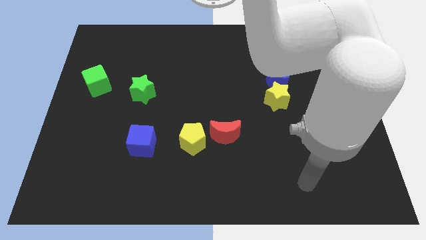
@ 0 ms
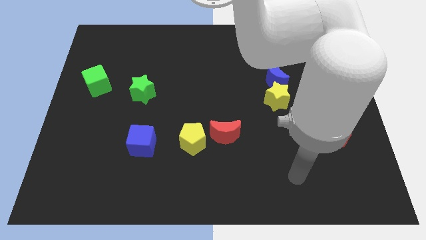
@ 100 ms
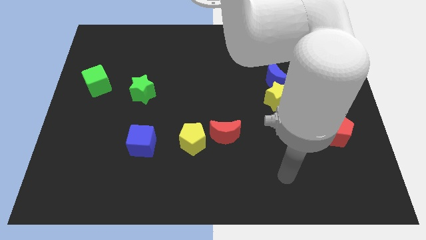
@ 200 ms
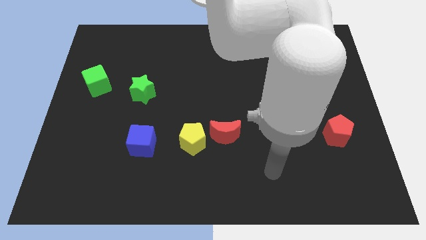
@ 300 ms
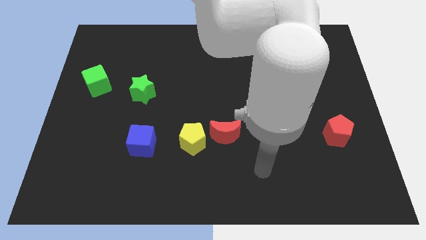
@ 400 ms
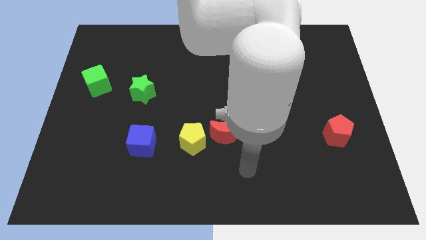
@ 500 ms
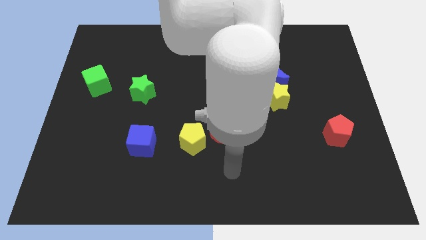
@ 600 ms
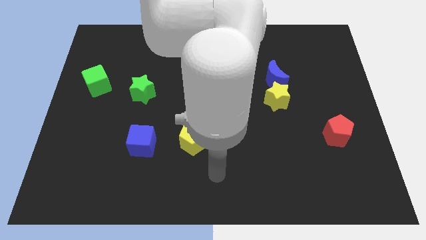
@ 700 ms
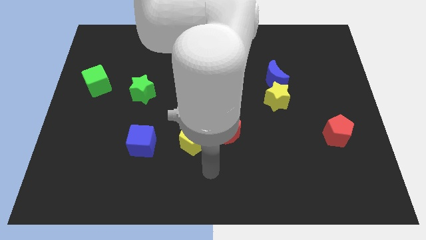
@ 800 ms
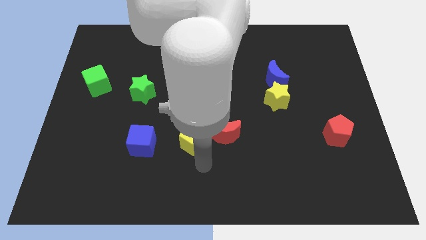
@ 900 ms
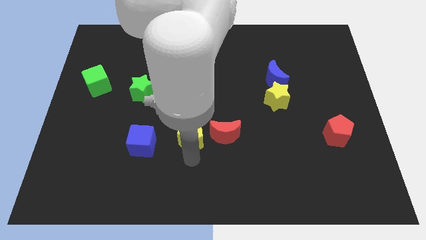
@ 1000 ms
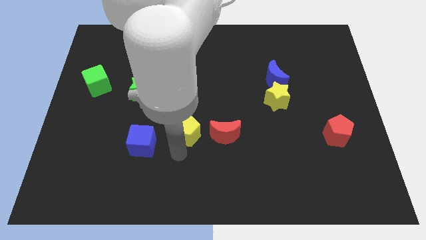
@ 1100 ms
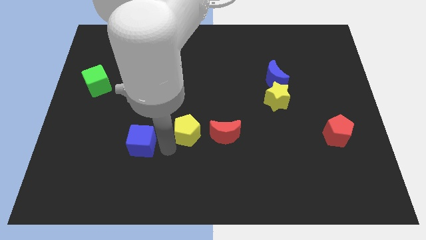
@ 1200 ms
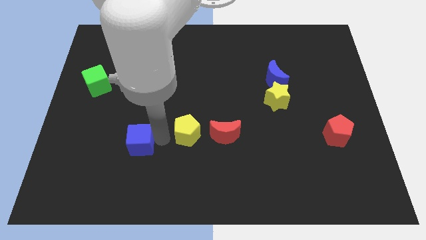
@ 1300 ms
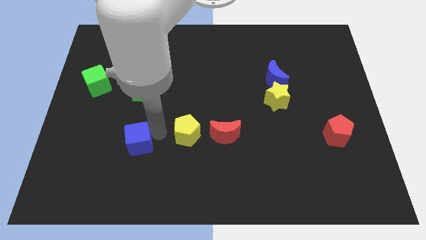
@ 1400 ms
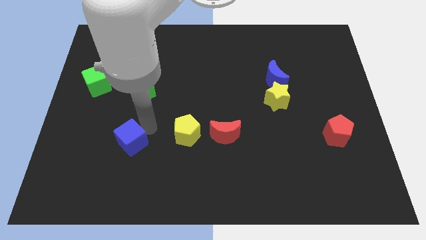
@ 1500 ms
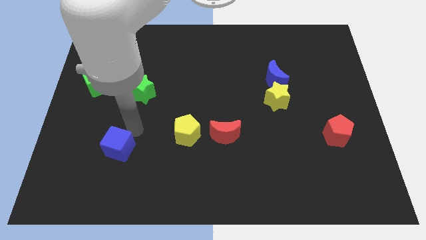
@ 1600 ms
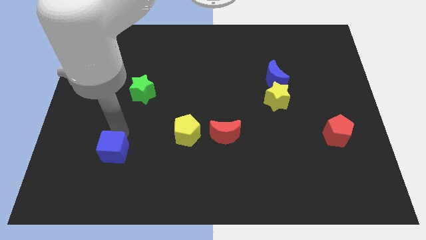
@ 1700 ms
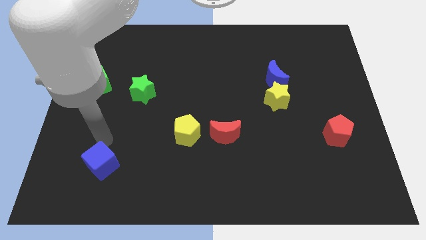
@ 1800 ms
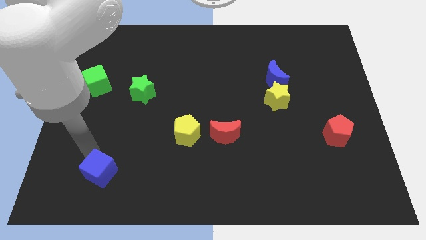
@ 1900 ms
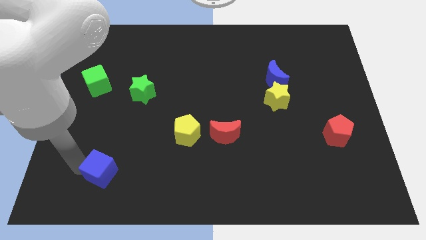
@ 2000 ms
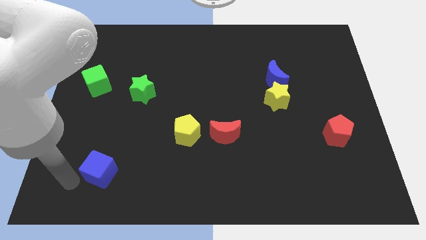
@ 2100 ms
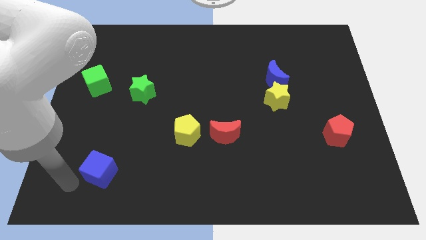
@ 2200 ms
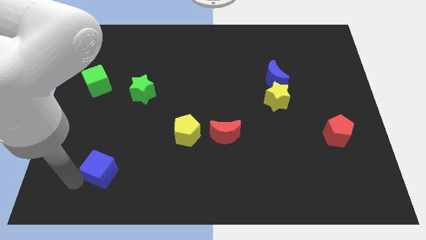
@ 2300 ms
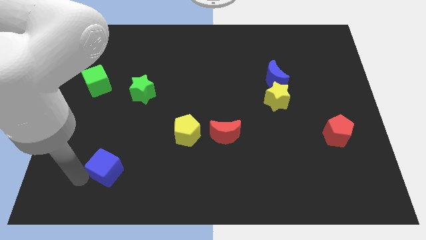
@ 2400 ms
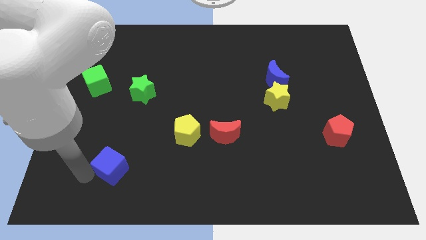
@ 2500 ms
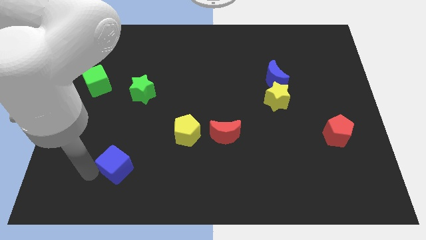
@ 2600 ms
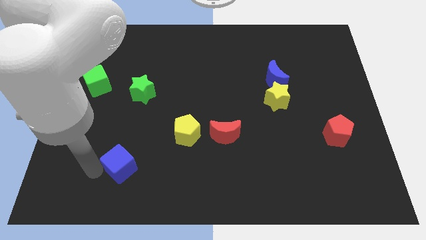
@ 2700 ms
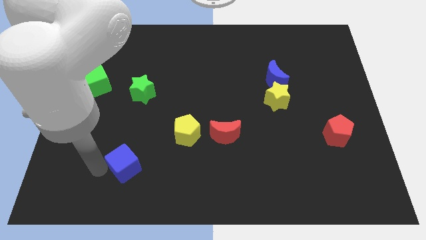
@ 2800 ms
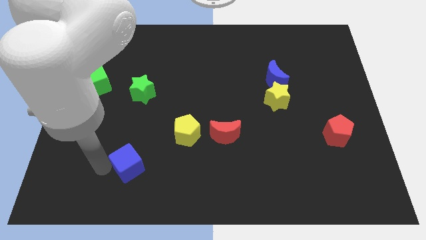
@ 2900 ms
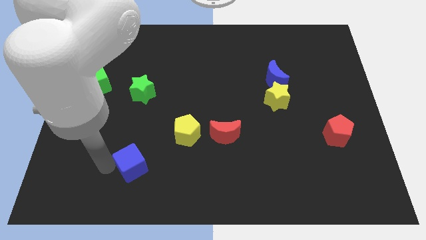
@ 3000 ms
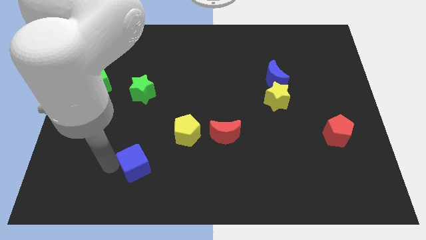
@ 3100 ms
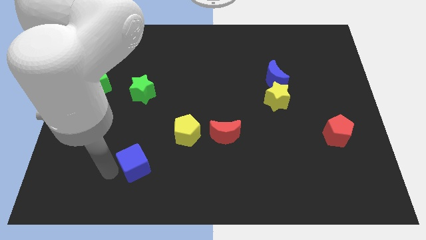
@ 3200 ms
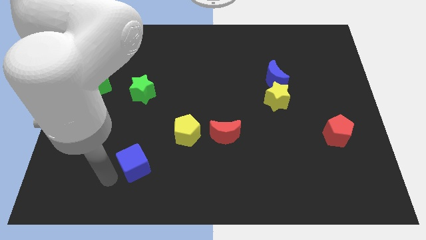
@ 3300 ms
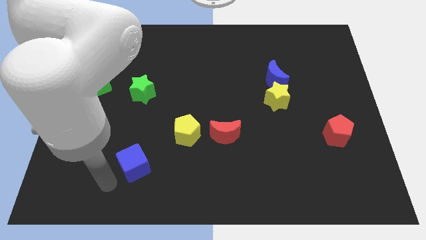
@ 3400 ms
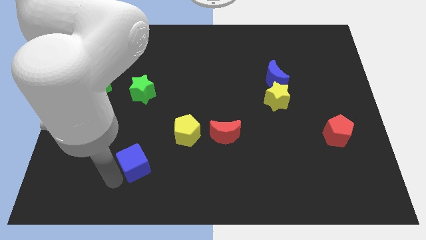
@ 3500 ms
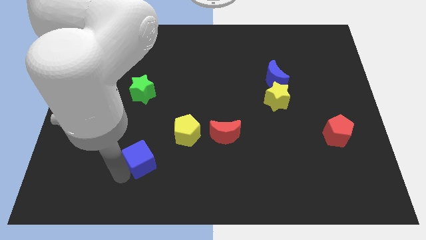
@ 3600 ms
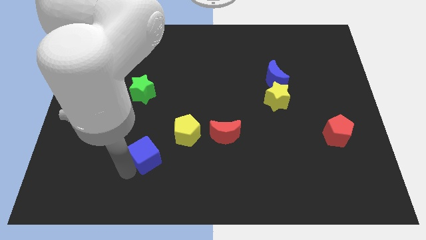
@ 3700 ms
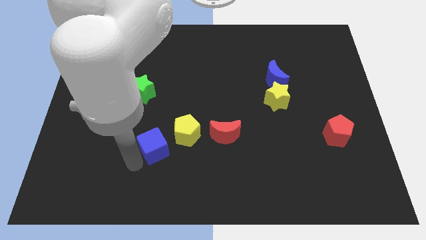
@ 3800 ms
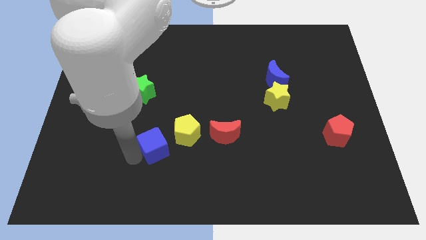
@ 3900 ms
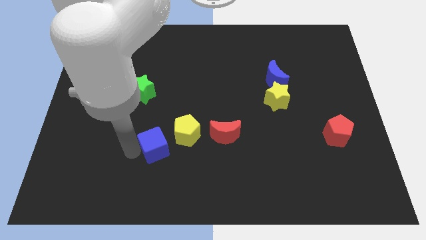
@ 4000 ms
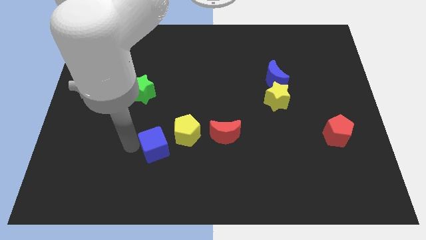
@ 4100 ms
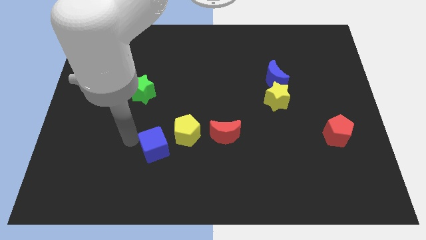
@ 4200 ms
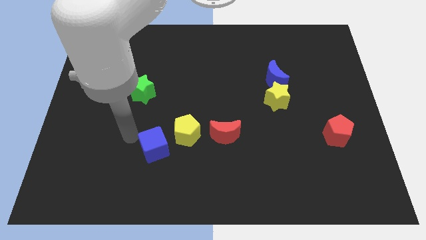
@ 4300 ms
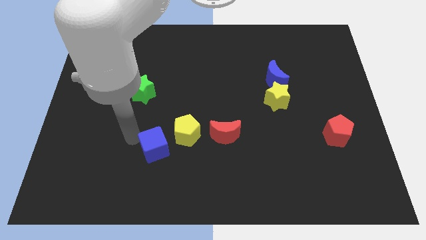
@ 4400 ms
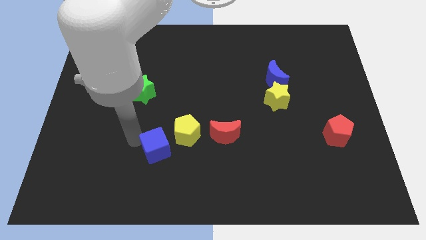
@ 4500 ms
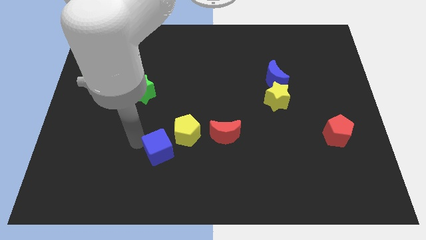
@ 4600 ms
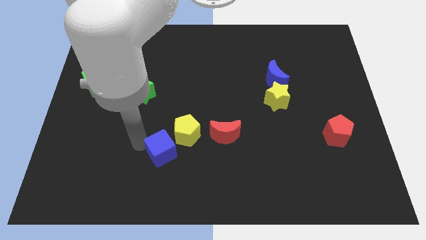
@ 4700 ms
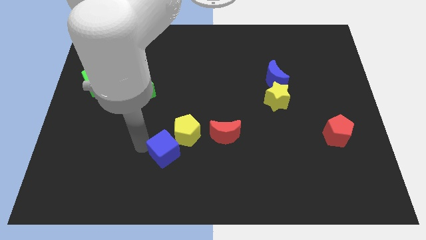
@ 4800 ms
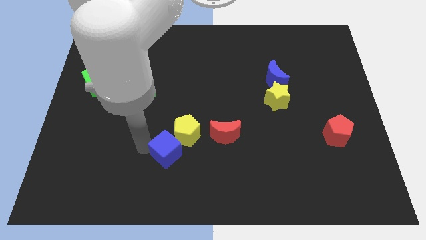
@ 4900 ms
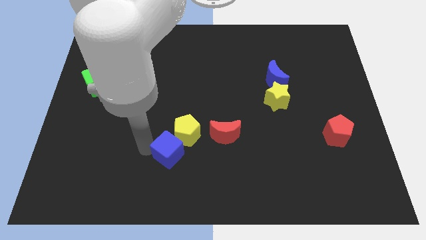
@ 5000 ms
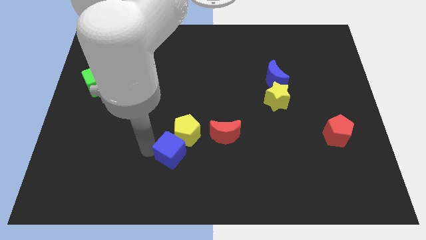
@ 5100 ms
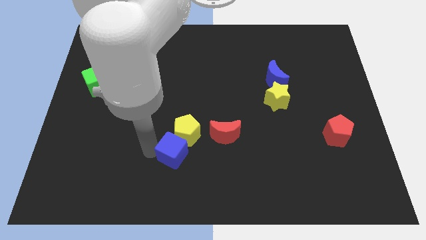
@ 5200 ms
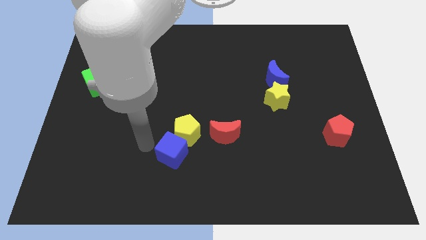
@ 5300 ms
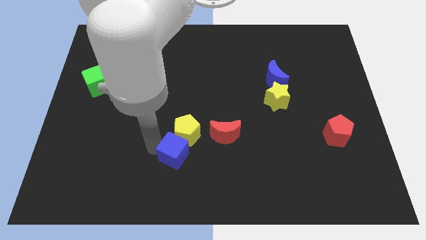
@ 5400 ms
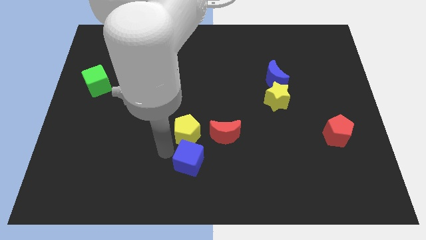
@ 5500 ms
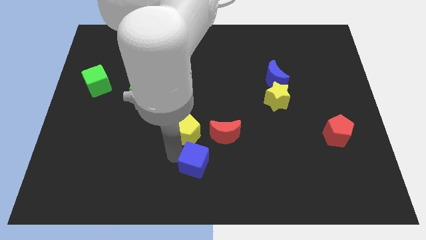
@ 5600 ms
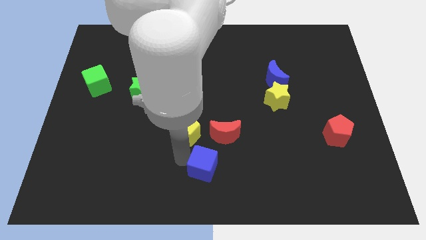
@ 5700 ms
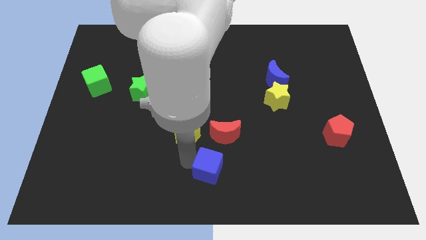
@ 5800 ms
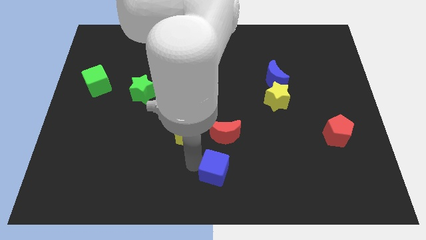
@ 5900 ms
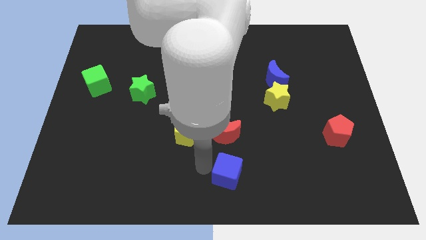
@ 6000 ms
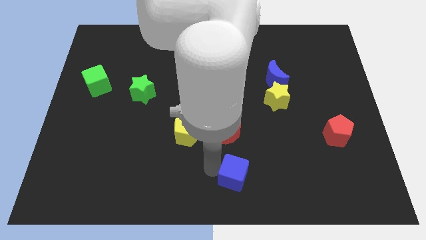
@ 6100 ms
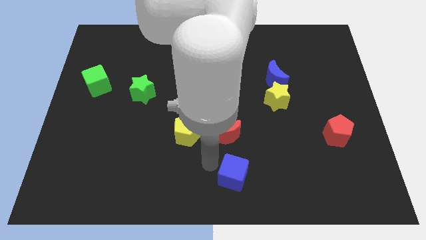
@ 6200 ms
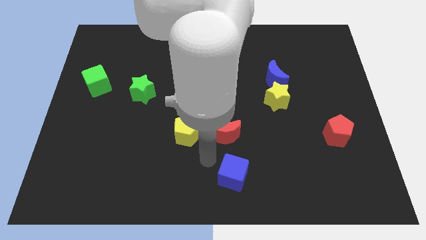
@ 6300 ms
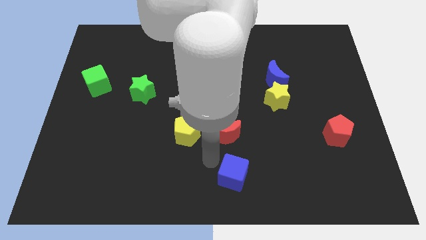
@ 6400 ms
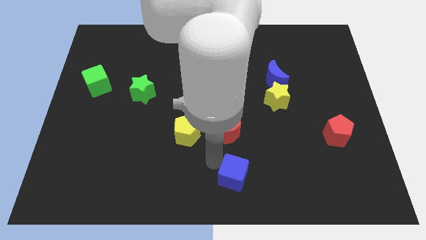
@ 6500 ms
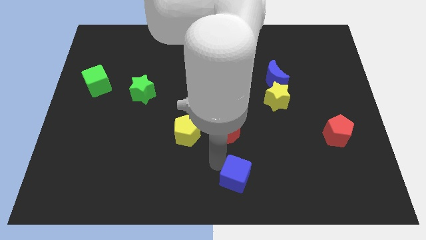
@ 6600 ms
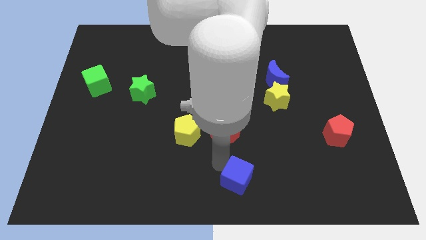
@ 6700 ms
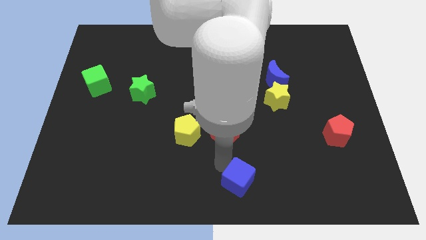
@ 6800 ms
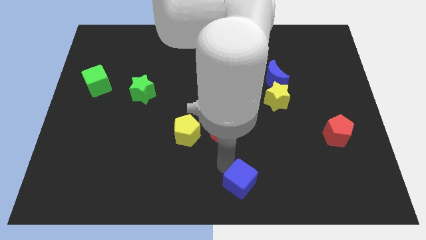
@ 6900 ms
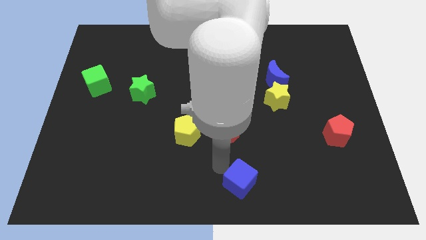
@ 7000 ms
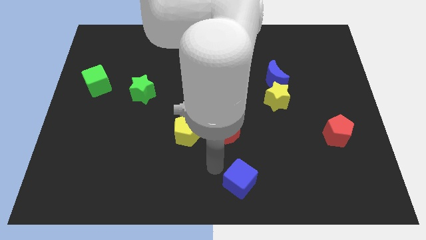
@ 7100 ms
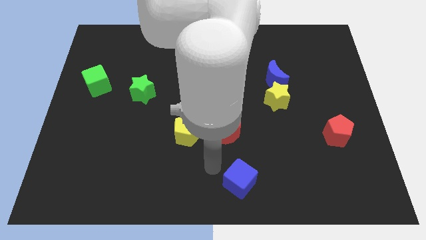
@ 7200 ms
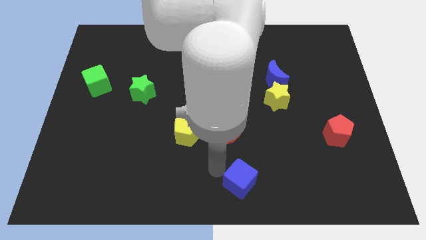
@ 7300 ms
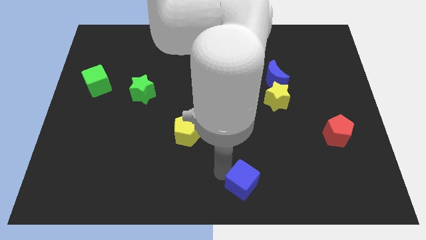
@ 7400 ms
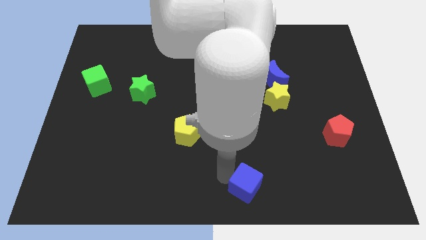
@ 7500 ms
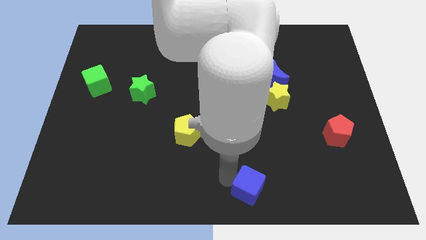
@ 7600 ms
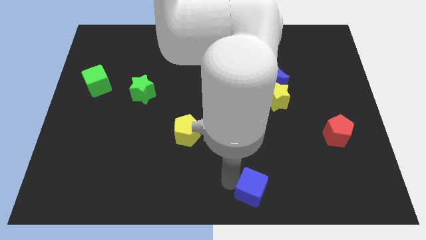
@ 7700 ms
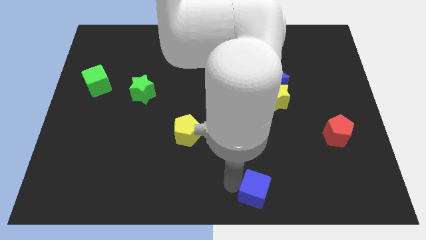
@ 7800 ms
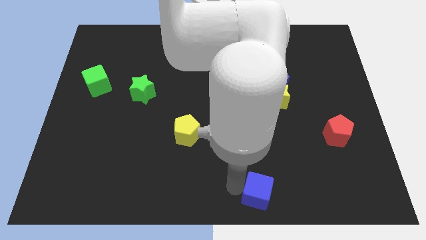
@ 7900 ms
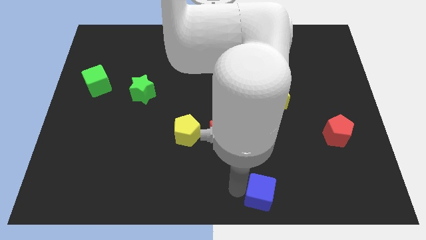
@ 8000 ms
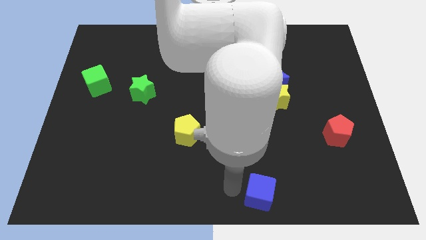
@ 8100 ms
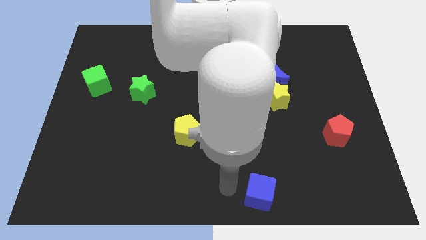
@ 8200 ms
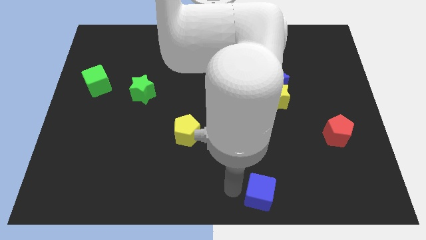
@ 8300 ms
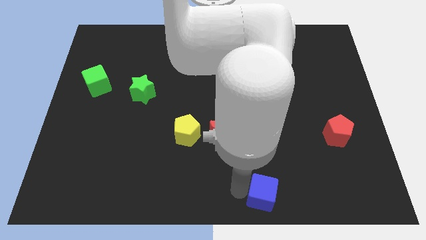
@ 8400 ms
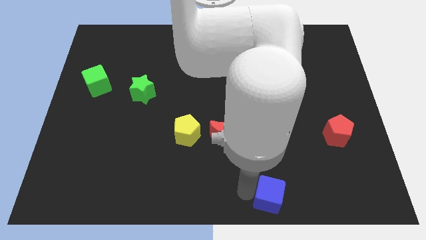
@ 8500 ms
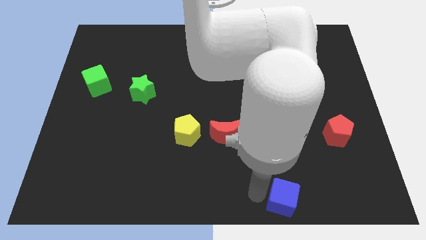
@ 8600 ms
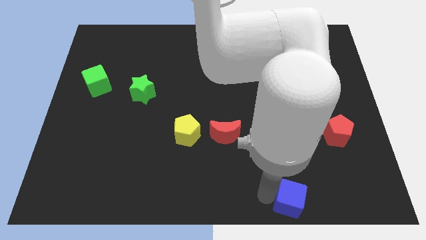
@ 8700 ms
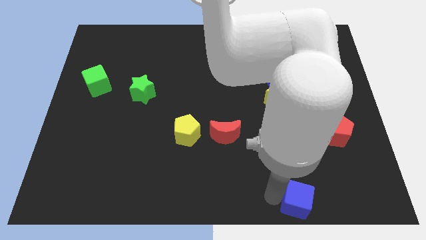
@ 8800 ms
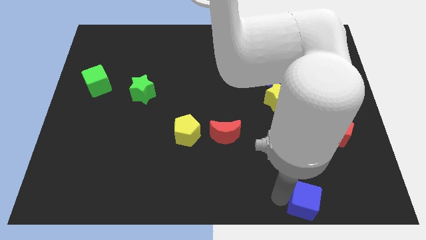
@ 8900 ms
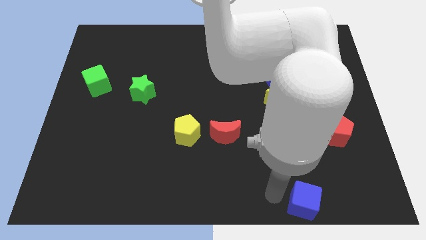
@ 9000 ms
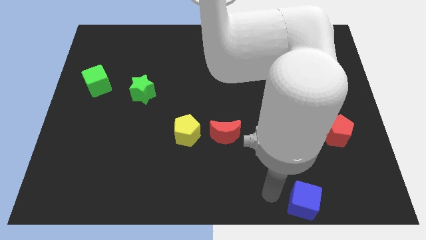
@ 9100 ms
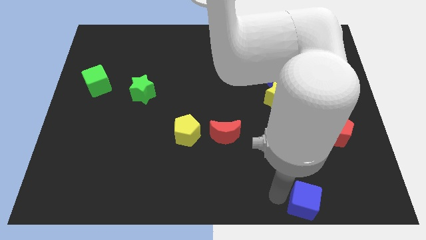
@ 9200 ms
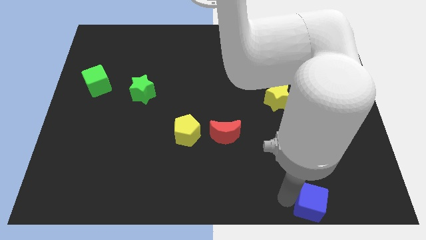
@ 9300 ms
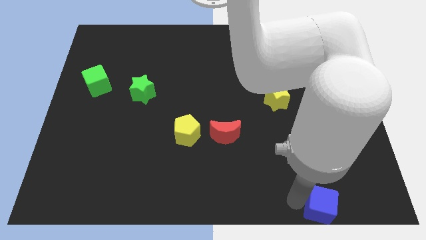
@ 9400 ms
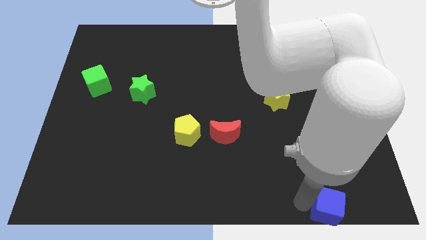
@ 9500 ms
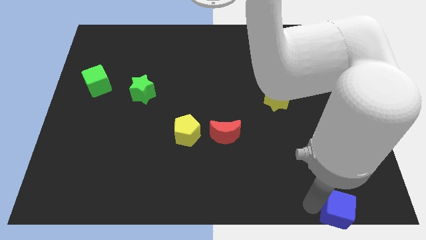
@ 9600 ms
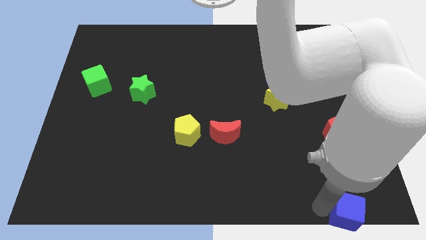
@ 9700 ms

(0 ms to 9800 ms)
put the blue cube to the lower right corner
